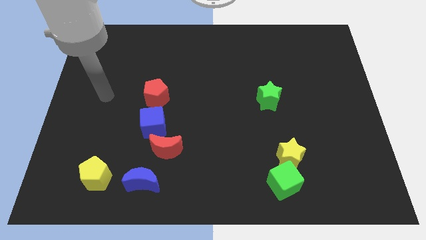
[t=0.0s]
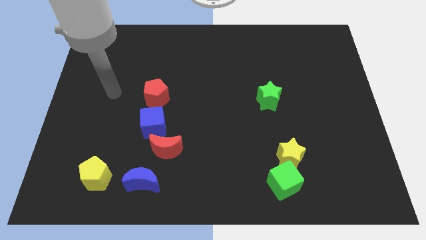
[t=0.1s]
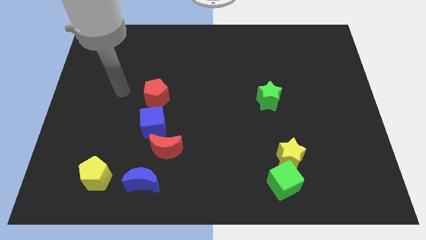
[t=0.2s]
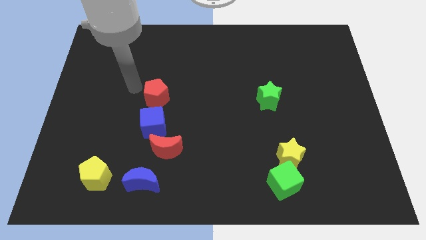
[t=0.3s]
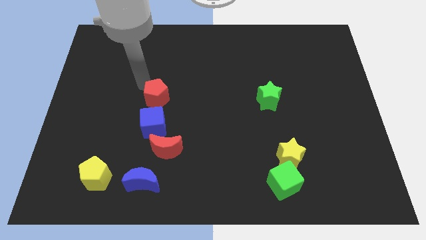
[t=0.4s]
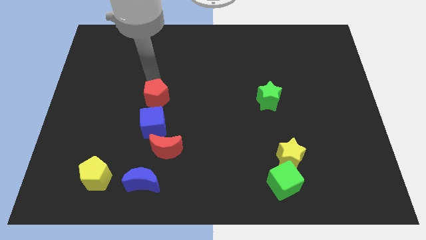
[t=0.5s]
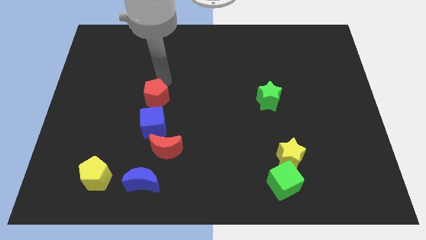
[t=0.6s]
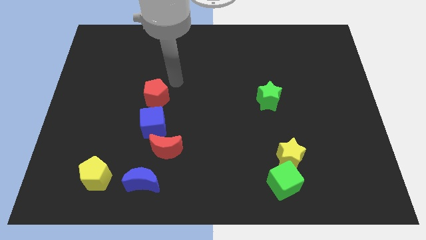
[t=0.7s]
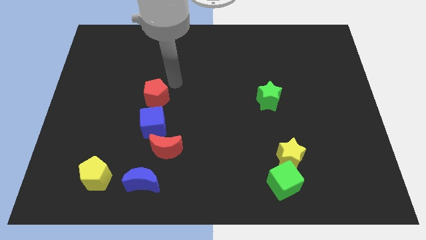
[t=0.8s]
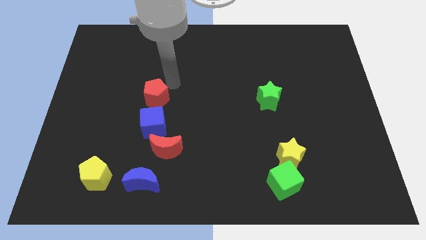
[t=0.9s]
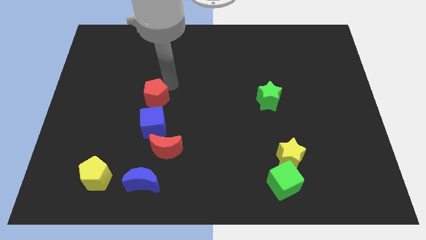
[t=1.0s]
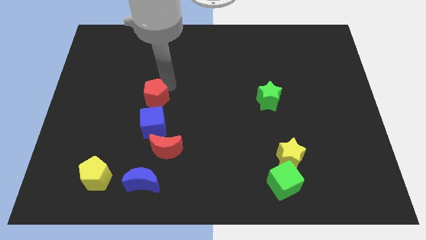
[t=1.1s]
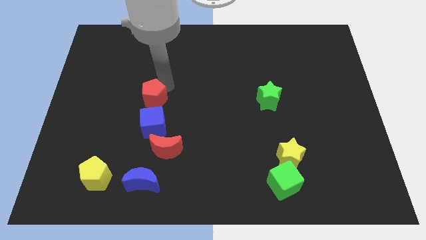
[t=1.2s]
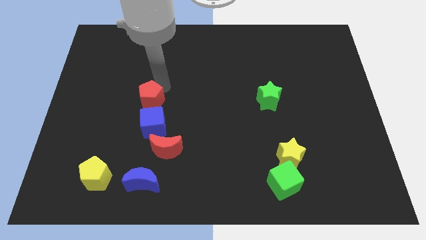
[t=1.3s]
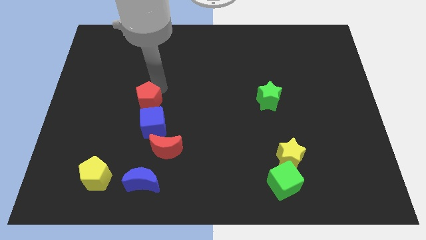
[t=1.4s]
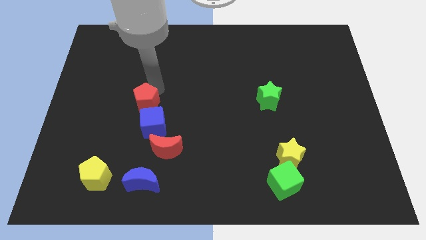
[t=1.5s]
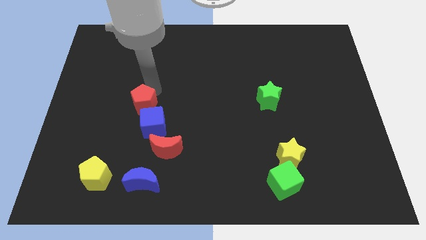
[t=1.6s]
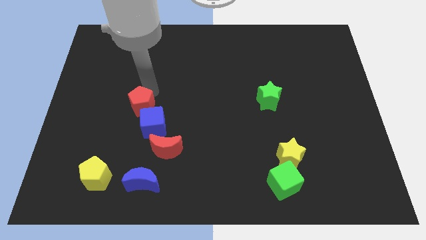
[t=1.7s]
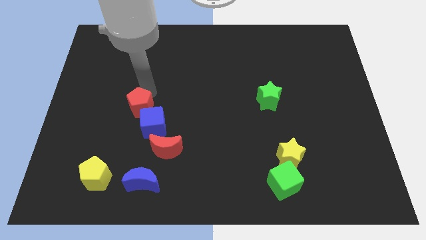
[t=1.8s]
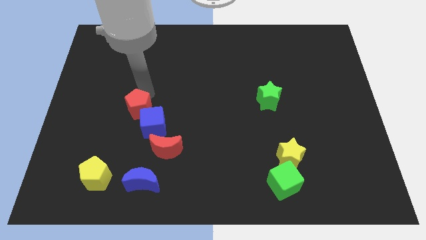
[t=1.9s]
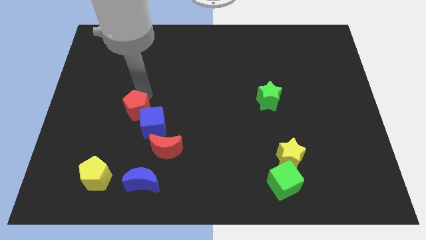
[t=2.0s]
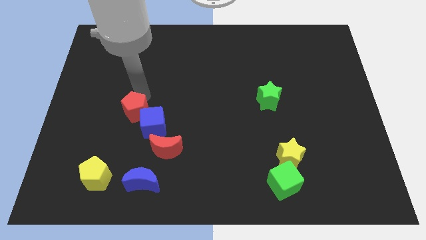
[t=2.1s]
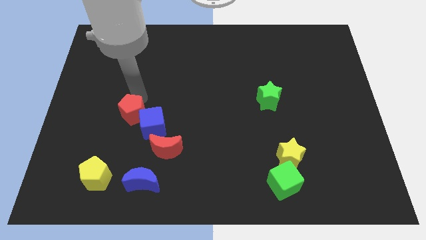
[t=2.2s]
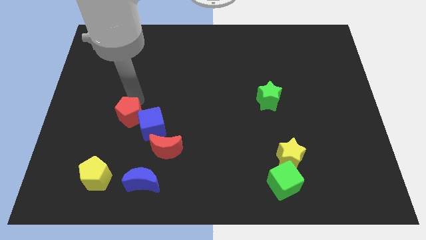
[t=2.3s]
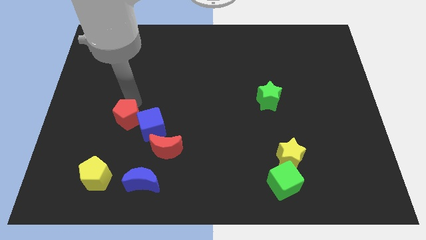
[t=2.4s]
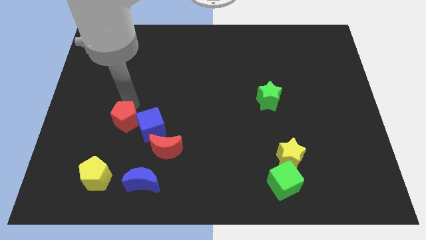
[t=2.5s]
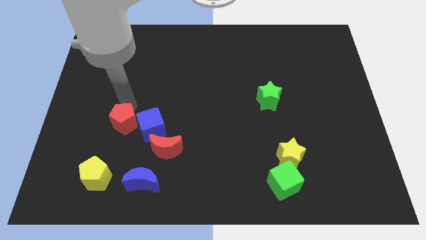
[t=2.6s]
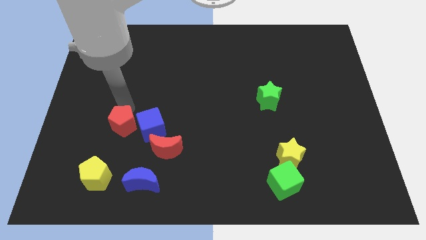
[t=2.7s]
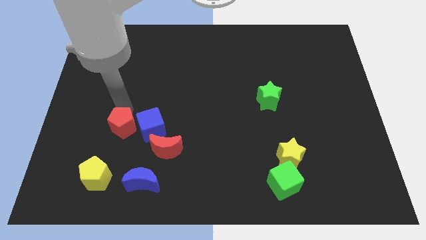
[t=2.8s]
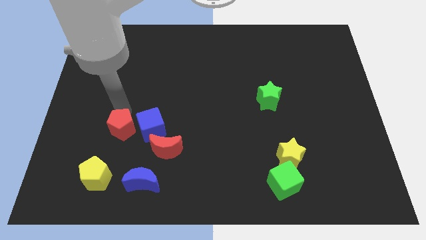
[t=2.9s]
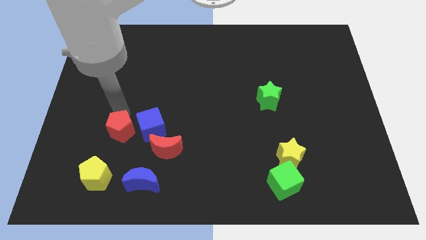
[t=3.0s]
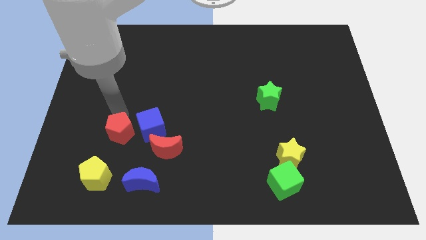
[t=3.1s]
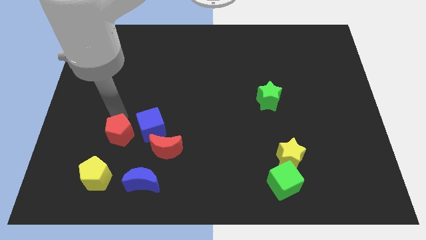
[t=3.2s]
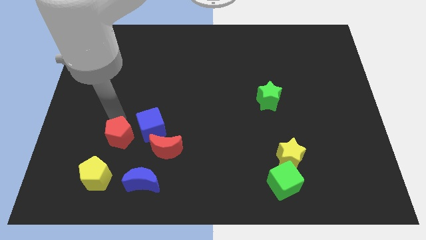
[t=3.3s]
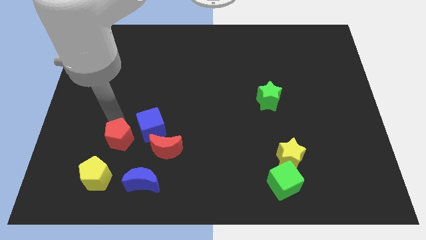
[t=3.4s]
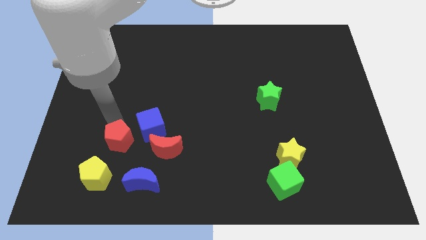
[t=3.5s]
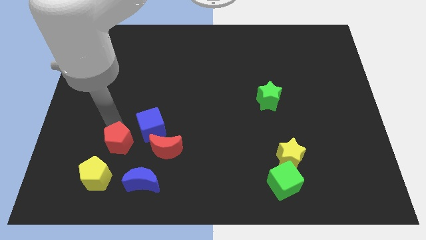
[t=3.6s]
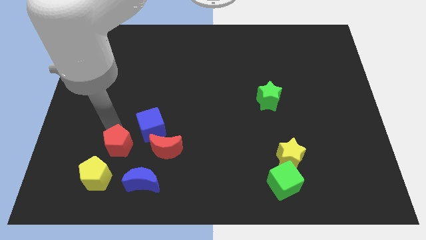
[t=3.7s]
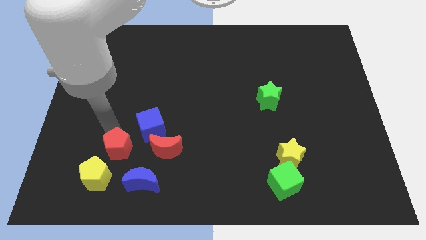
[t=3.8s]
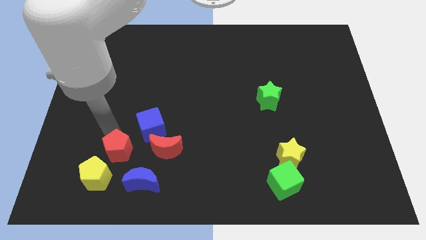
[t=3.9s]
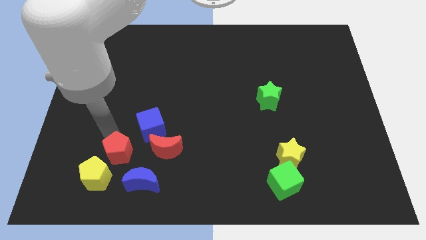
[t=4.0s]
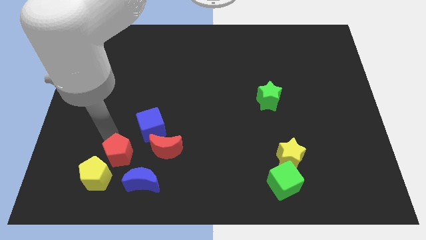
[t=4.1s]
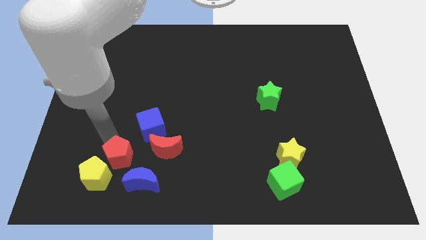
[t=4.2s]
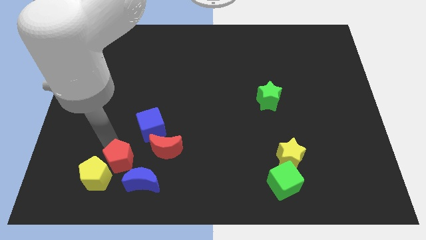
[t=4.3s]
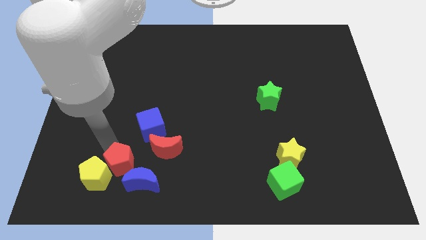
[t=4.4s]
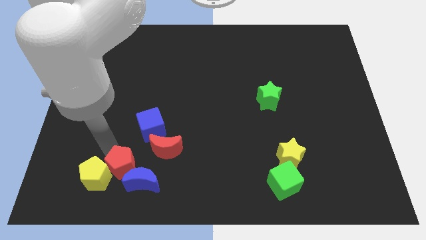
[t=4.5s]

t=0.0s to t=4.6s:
move the red pentagon to the blue moon

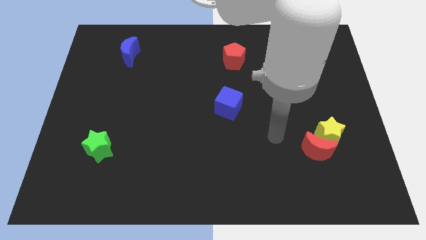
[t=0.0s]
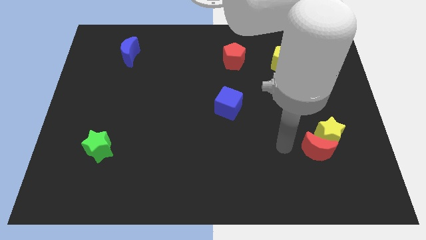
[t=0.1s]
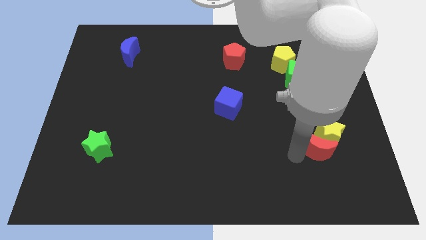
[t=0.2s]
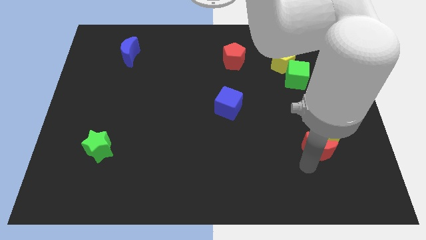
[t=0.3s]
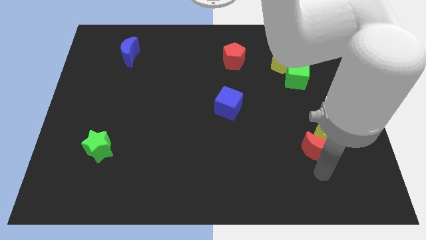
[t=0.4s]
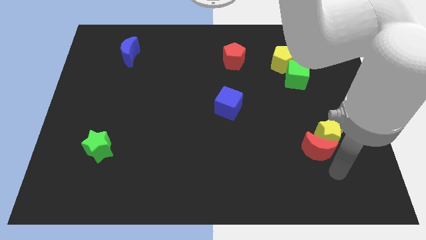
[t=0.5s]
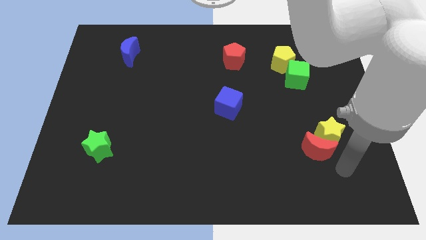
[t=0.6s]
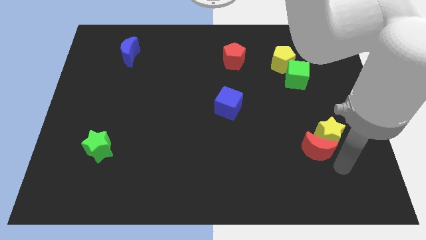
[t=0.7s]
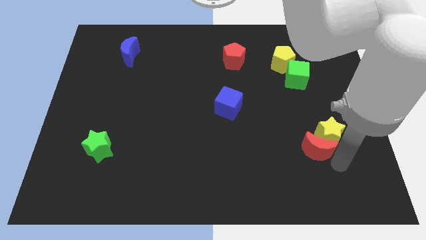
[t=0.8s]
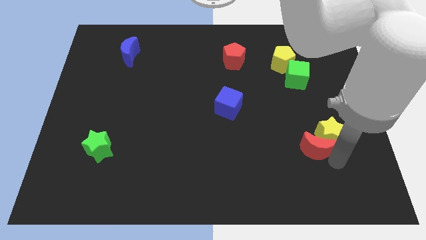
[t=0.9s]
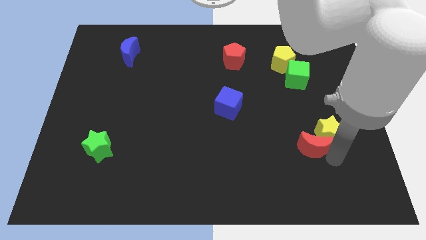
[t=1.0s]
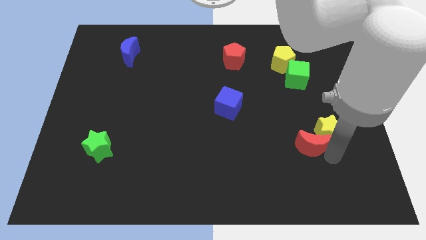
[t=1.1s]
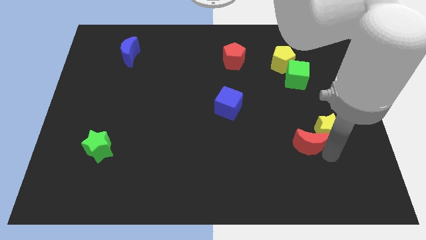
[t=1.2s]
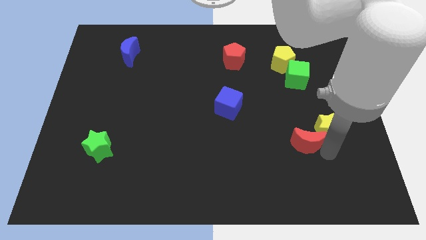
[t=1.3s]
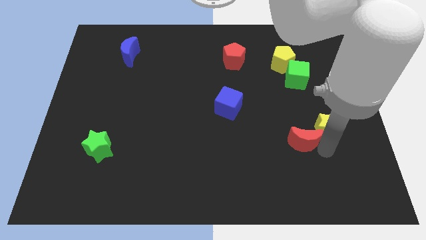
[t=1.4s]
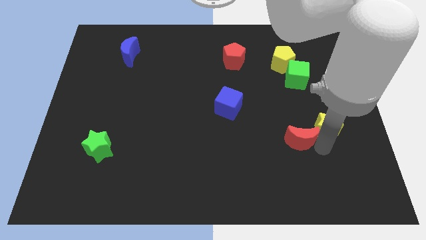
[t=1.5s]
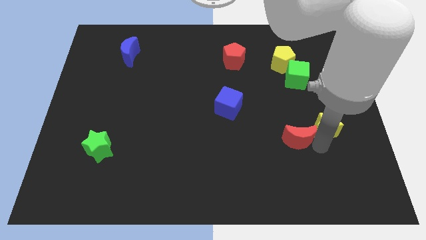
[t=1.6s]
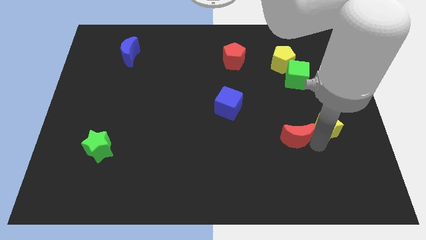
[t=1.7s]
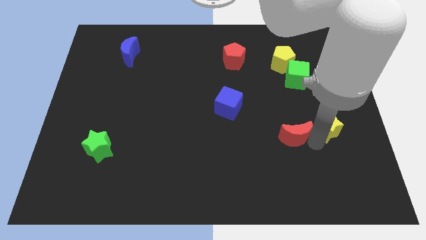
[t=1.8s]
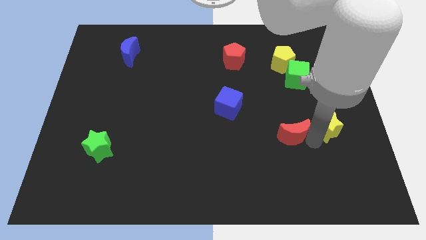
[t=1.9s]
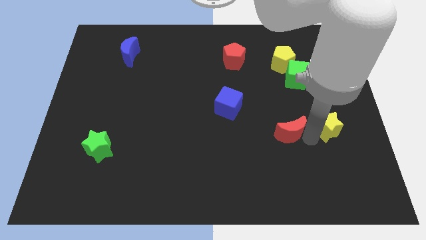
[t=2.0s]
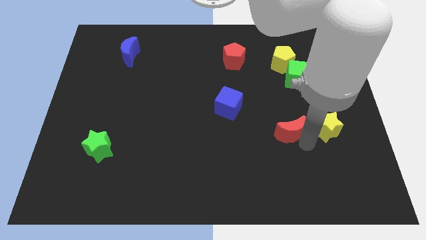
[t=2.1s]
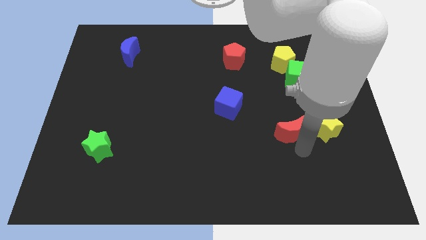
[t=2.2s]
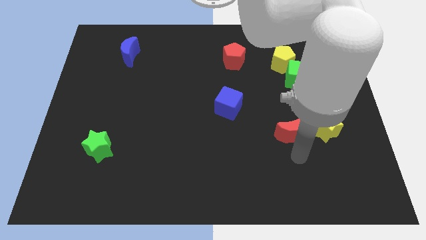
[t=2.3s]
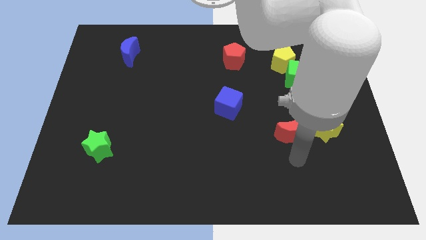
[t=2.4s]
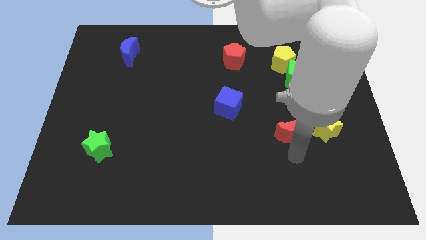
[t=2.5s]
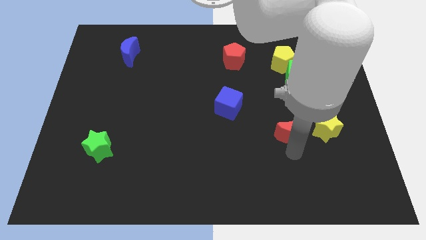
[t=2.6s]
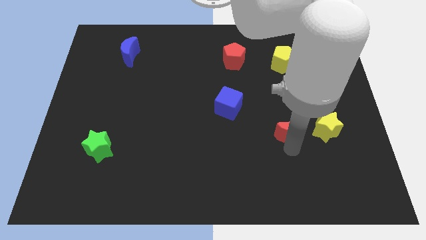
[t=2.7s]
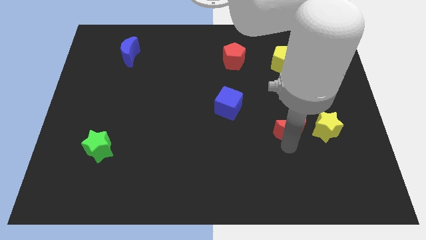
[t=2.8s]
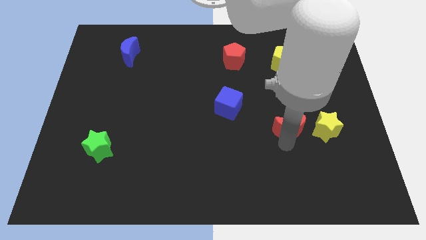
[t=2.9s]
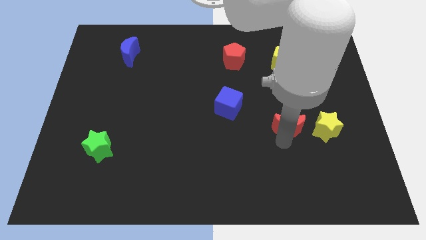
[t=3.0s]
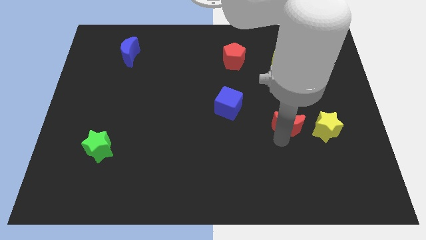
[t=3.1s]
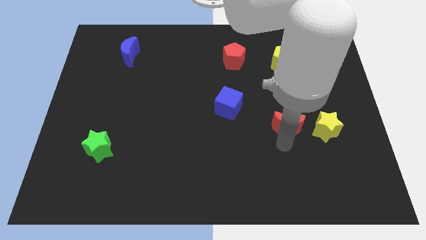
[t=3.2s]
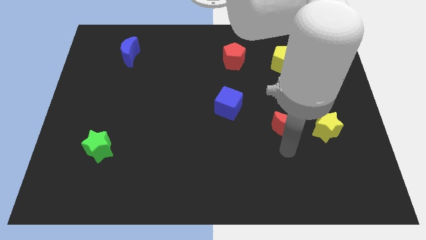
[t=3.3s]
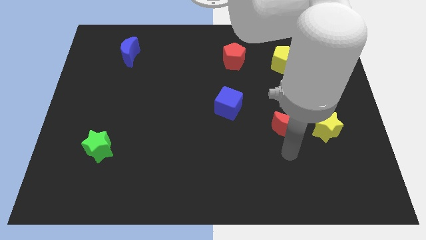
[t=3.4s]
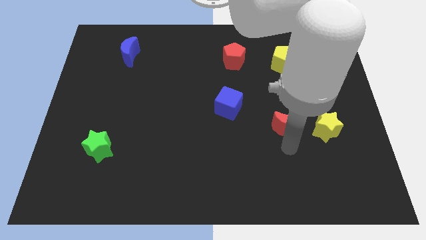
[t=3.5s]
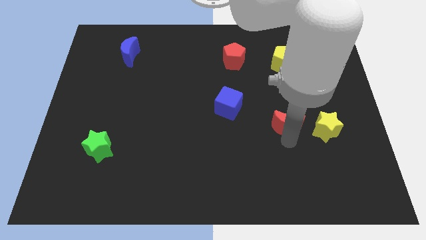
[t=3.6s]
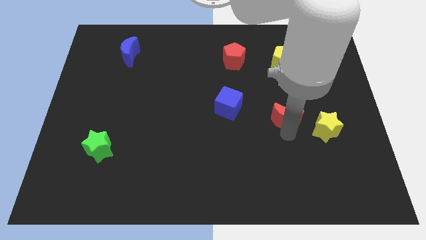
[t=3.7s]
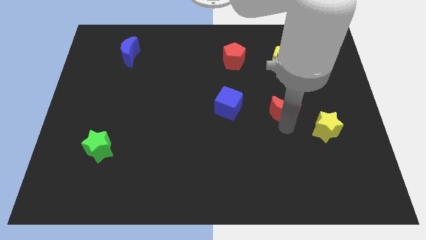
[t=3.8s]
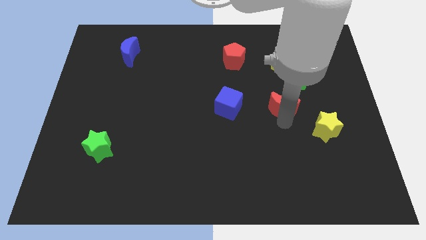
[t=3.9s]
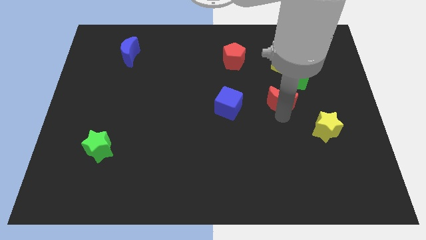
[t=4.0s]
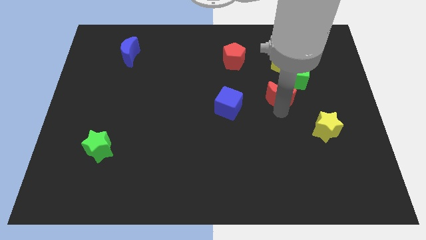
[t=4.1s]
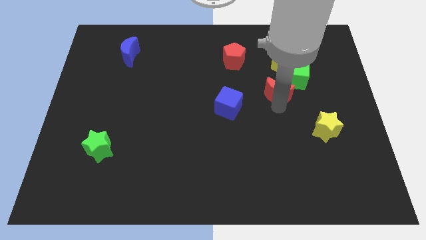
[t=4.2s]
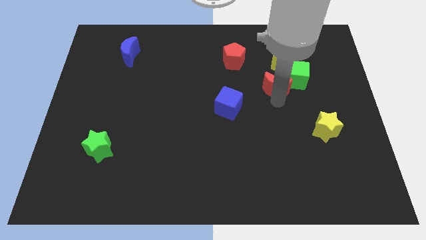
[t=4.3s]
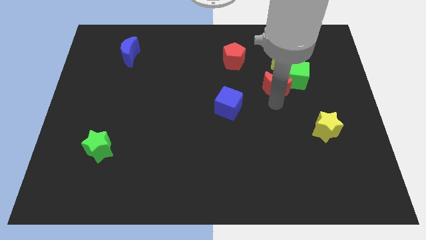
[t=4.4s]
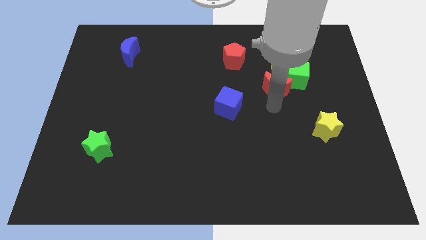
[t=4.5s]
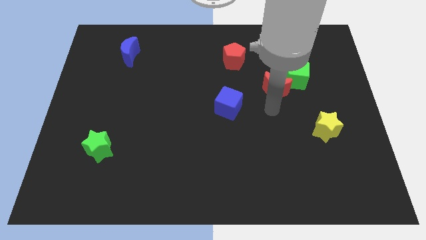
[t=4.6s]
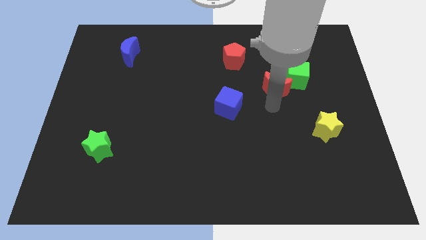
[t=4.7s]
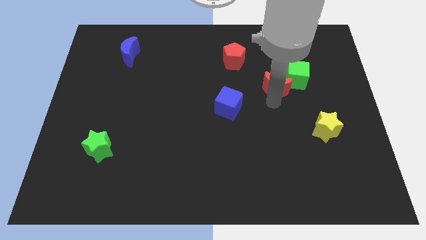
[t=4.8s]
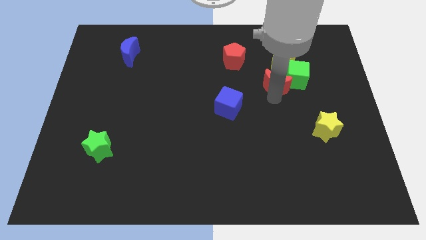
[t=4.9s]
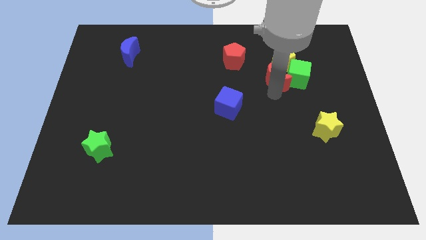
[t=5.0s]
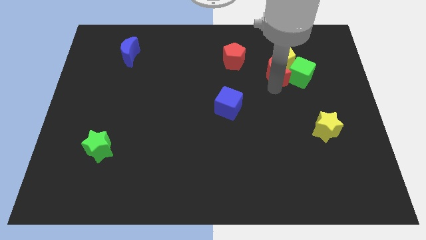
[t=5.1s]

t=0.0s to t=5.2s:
push the red moon close to the yellow pentagon
